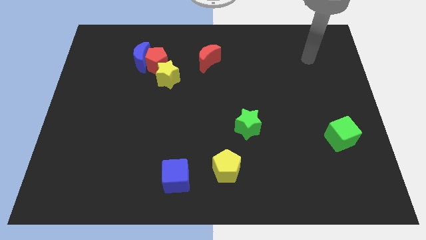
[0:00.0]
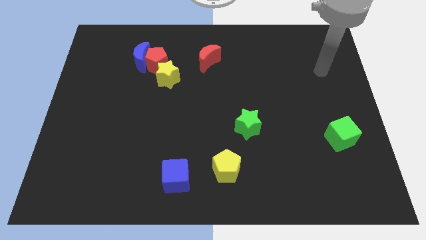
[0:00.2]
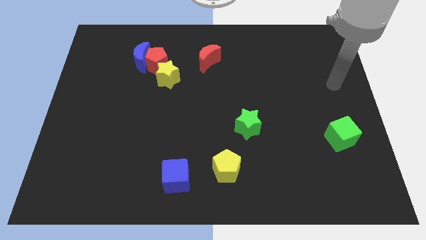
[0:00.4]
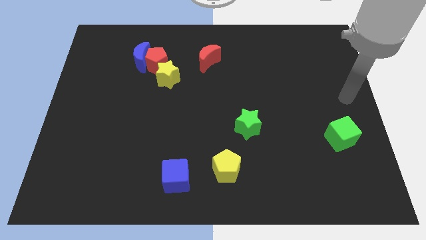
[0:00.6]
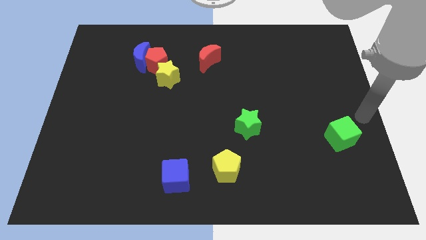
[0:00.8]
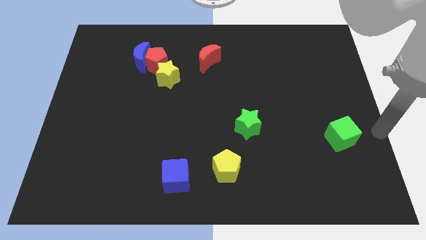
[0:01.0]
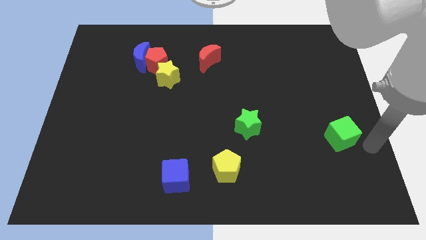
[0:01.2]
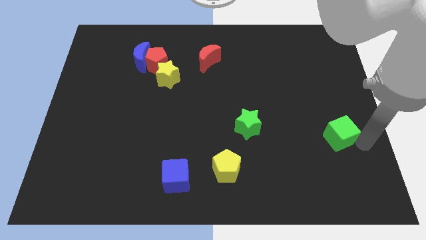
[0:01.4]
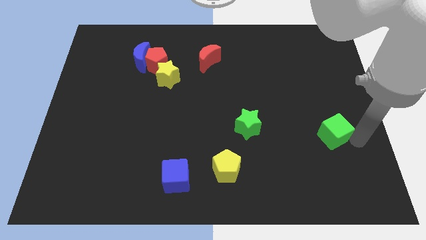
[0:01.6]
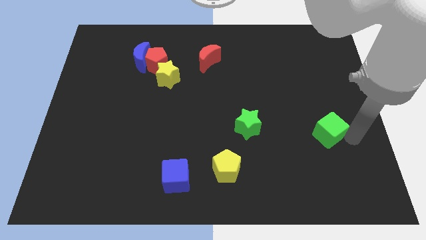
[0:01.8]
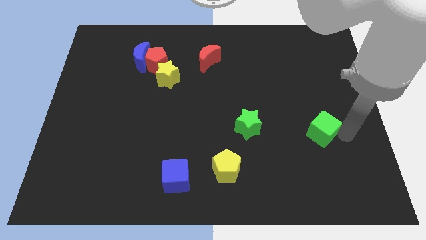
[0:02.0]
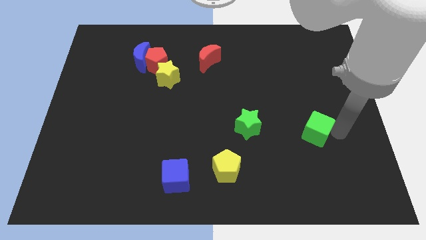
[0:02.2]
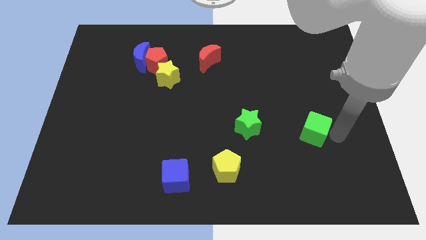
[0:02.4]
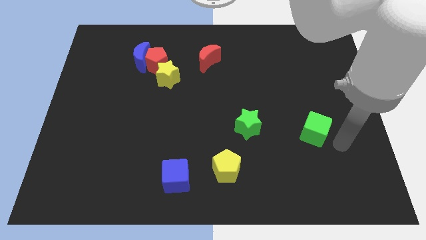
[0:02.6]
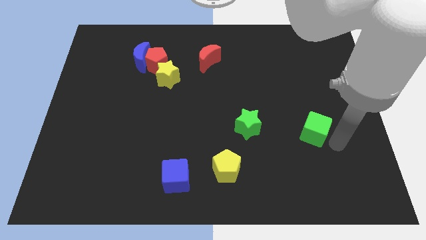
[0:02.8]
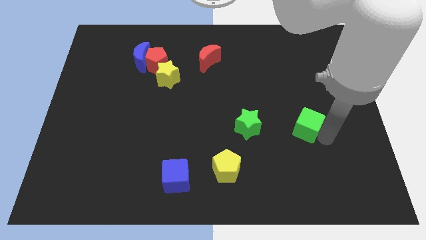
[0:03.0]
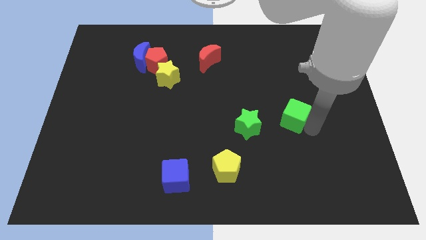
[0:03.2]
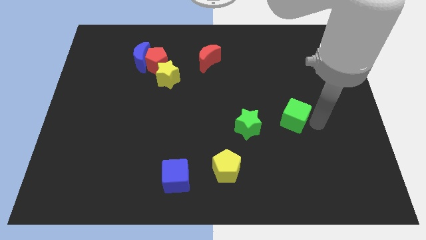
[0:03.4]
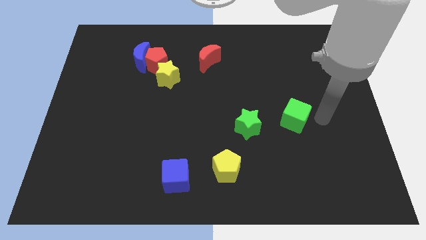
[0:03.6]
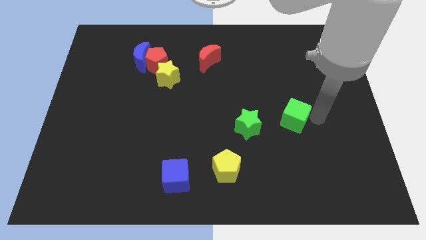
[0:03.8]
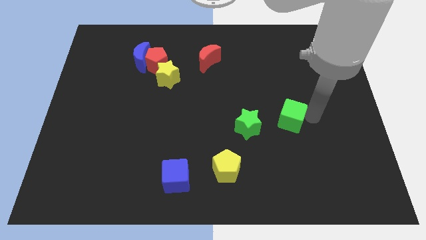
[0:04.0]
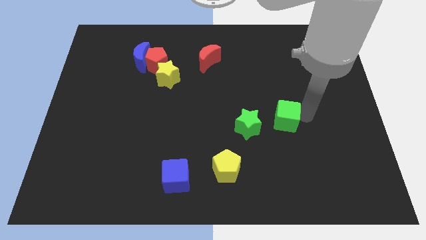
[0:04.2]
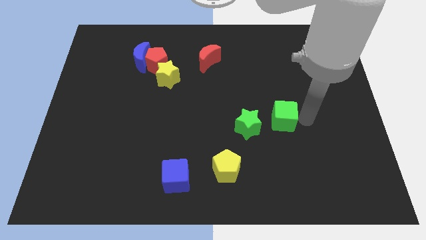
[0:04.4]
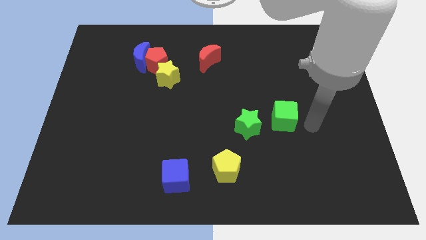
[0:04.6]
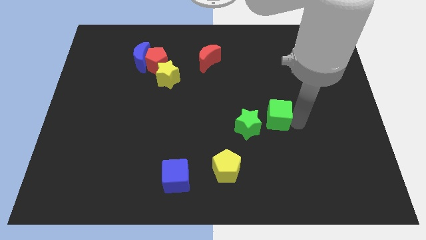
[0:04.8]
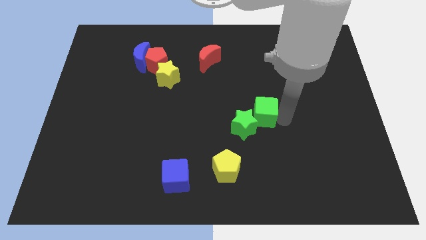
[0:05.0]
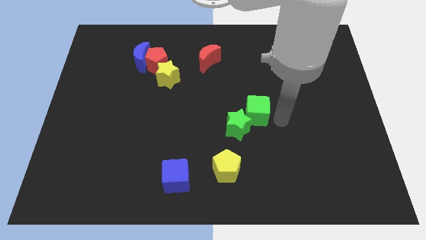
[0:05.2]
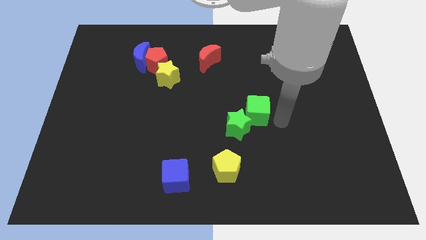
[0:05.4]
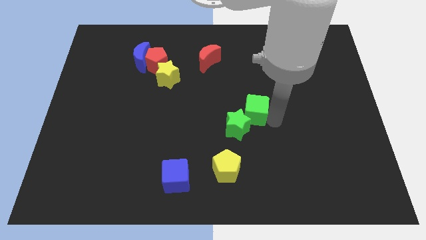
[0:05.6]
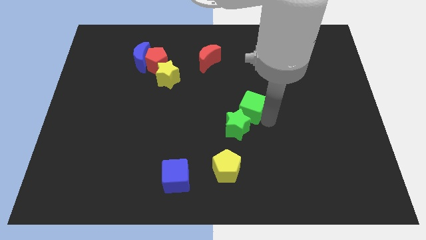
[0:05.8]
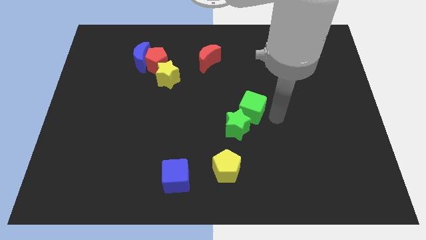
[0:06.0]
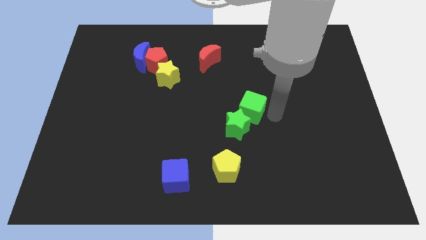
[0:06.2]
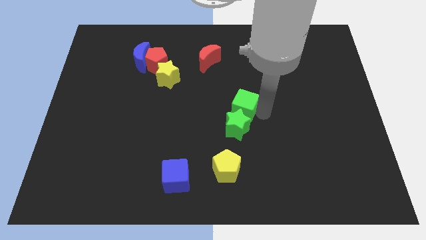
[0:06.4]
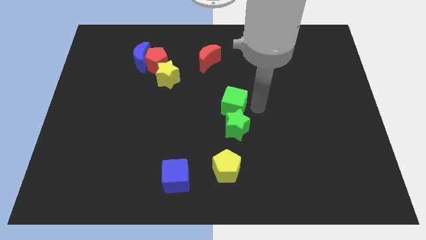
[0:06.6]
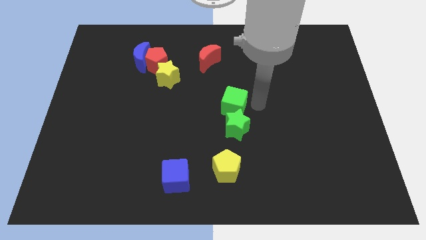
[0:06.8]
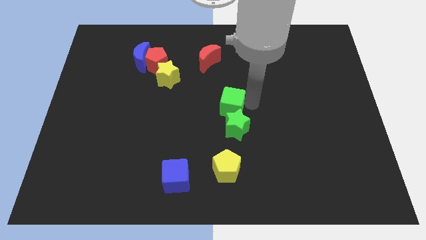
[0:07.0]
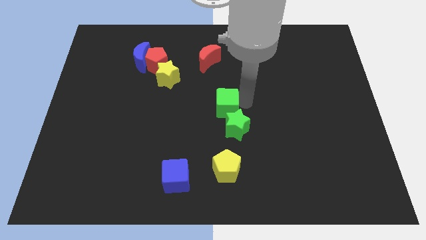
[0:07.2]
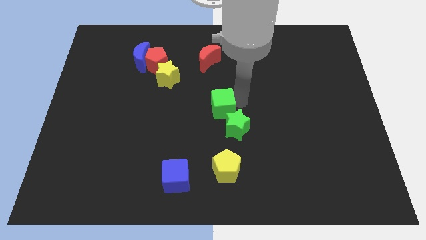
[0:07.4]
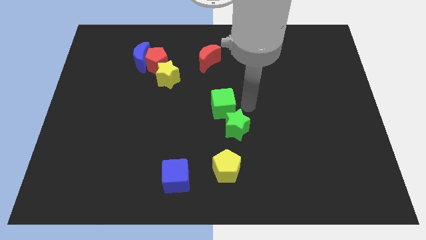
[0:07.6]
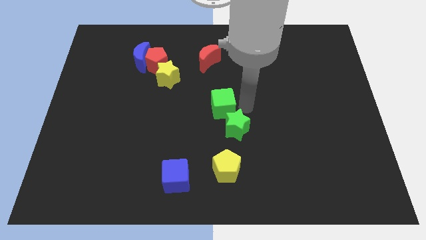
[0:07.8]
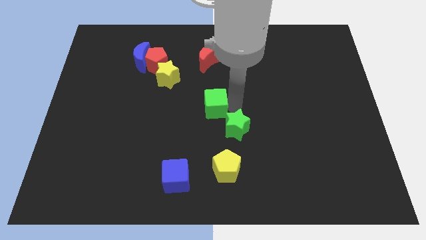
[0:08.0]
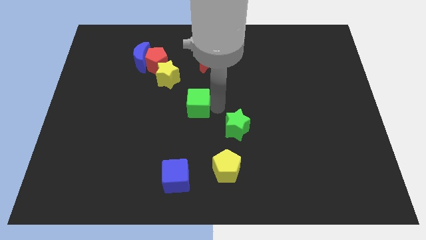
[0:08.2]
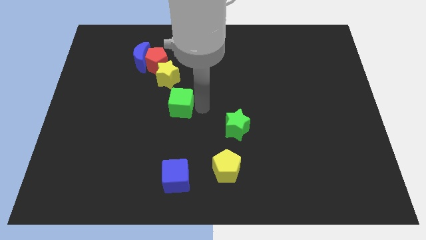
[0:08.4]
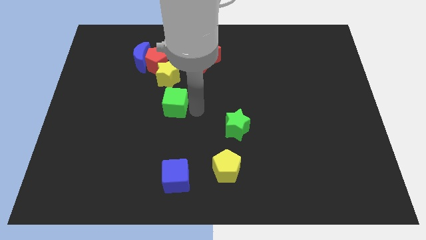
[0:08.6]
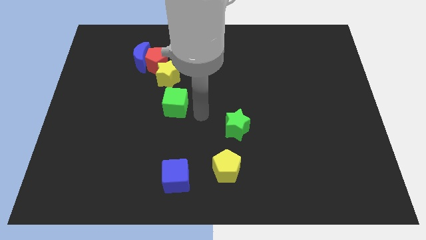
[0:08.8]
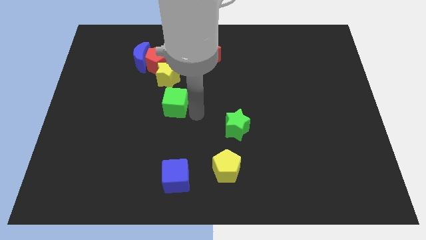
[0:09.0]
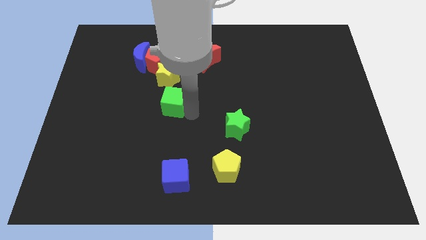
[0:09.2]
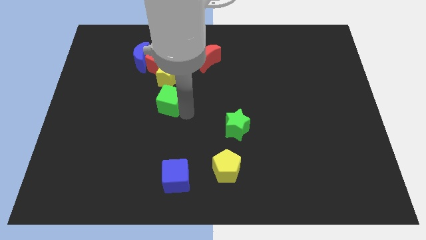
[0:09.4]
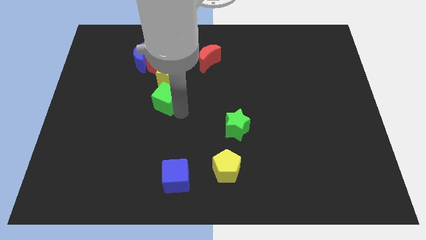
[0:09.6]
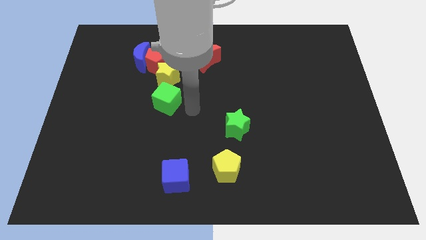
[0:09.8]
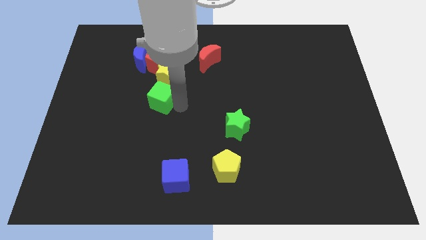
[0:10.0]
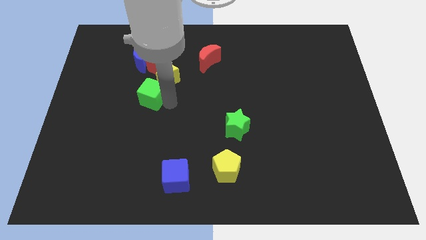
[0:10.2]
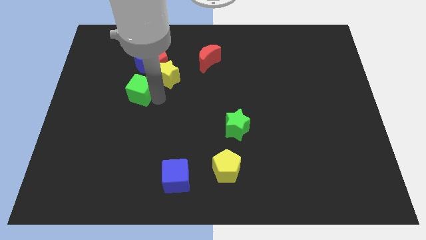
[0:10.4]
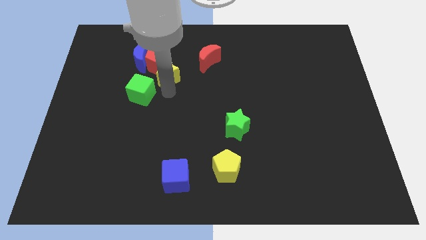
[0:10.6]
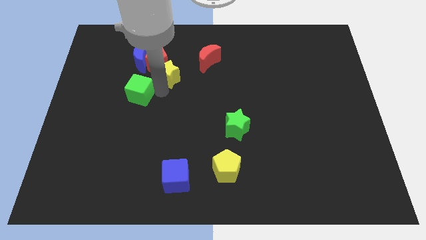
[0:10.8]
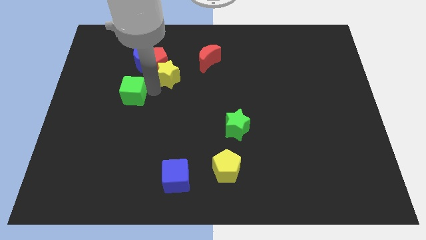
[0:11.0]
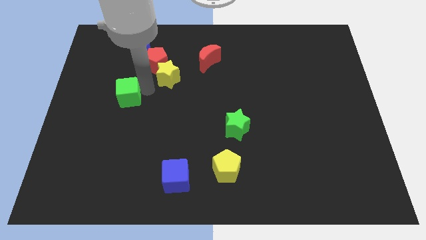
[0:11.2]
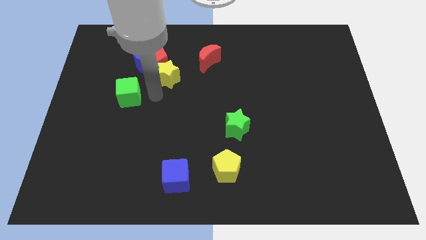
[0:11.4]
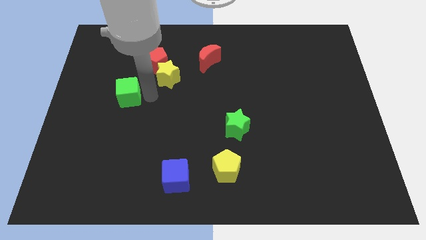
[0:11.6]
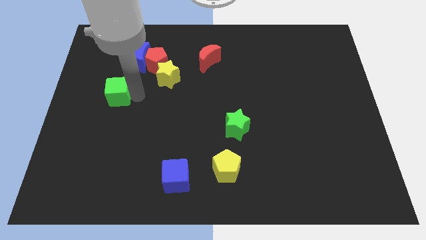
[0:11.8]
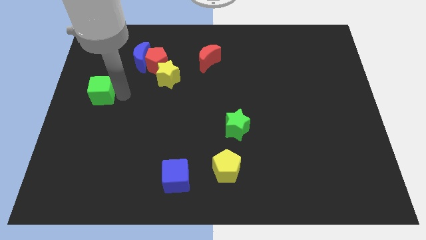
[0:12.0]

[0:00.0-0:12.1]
slide the green cube to the center left
